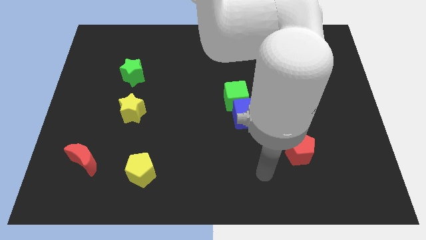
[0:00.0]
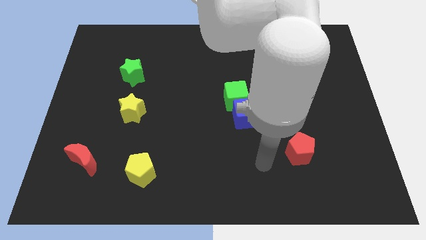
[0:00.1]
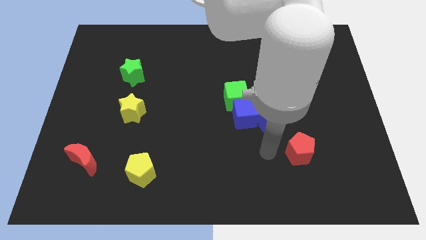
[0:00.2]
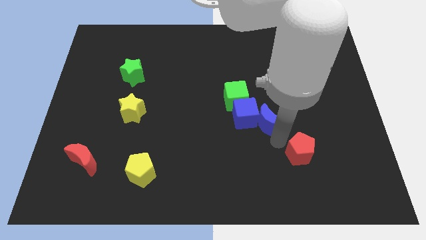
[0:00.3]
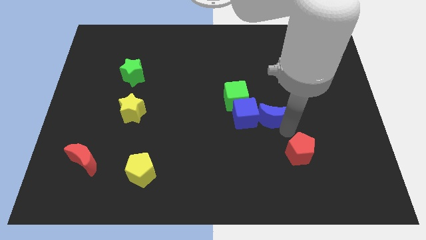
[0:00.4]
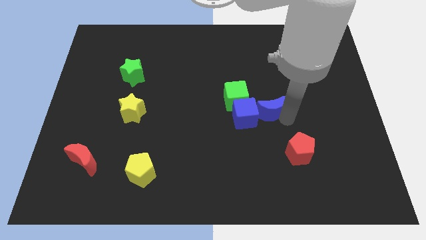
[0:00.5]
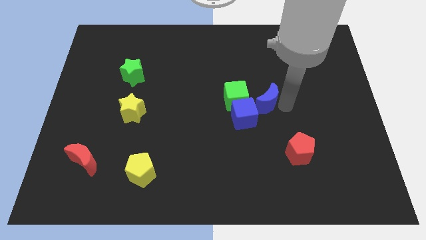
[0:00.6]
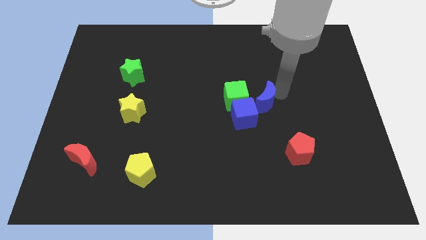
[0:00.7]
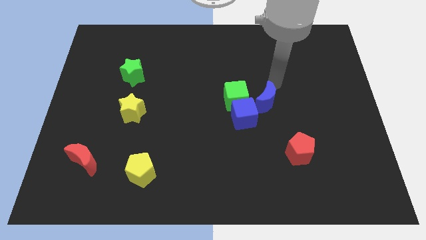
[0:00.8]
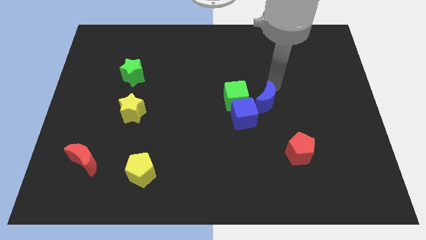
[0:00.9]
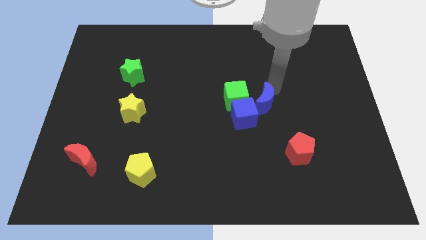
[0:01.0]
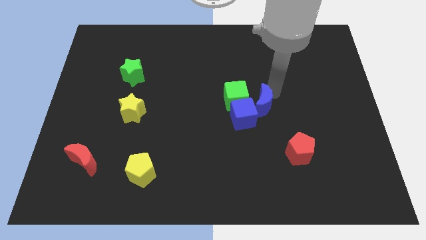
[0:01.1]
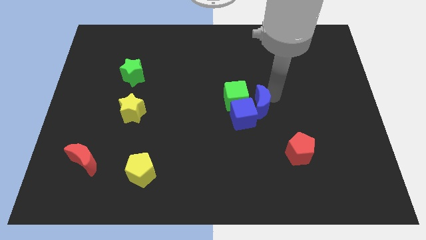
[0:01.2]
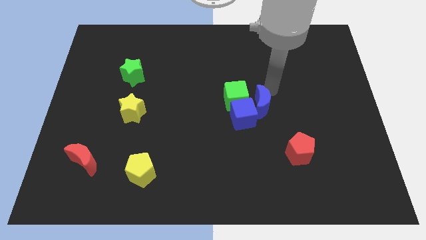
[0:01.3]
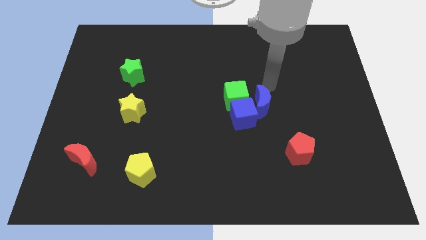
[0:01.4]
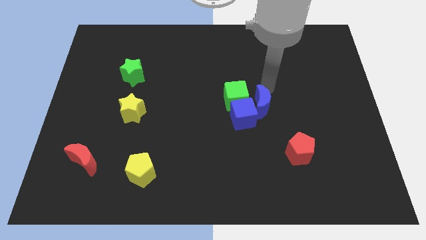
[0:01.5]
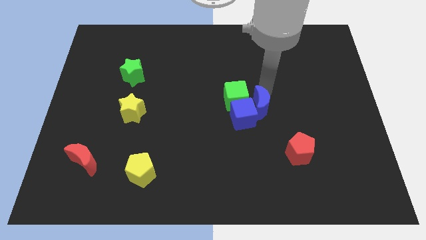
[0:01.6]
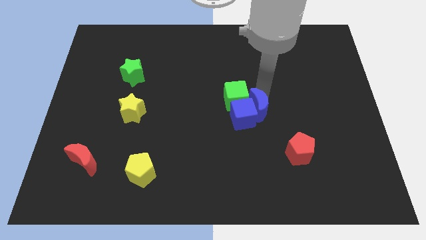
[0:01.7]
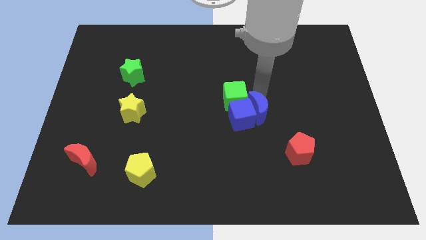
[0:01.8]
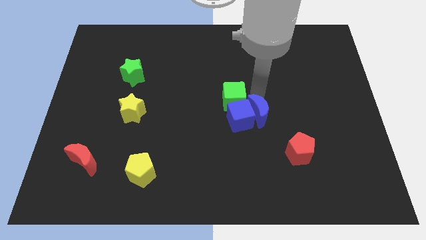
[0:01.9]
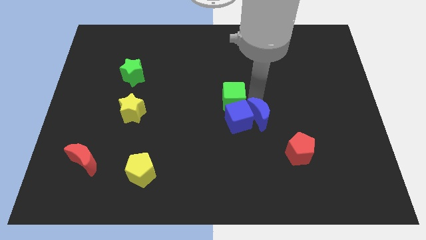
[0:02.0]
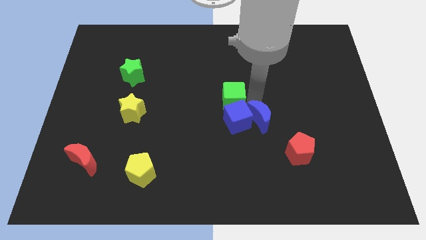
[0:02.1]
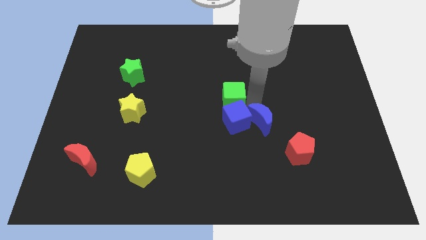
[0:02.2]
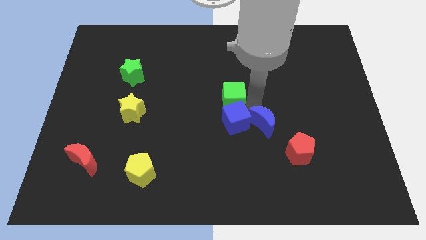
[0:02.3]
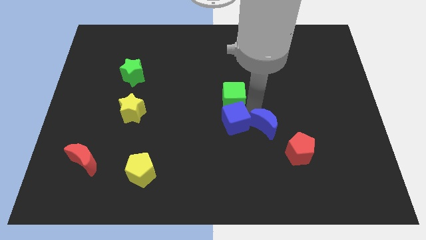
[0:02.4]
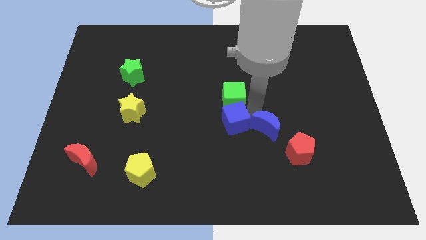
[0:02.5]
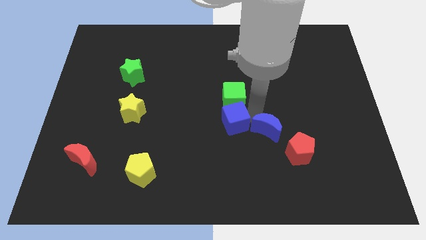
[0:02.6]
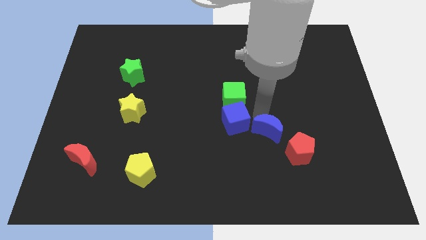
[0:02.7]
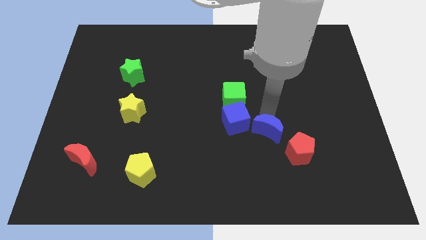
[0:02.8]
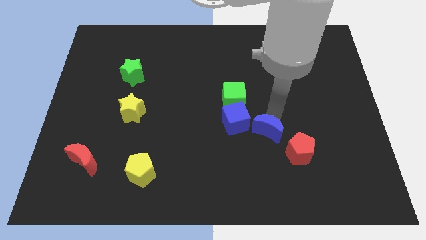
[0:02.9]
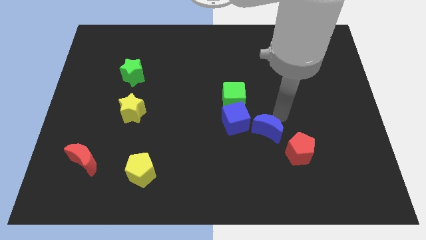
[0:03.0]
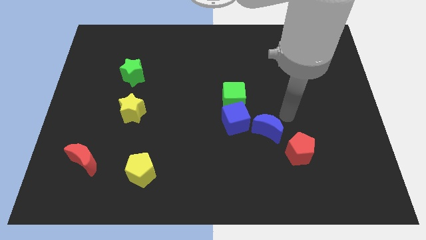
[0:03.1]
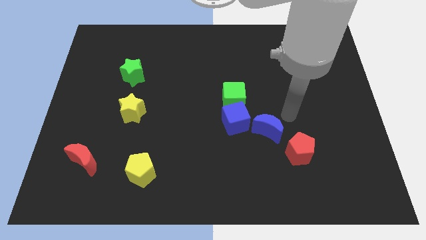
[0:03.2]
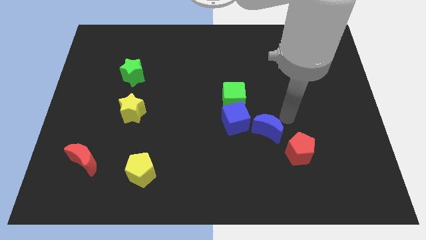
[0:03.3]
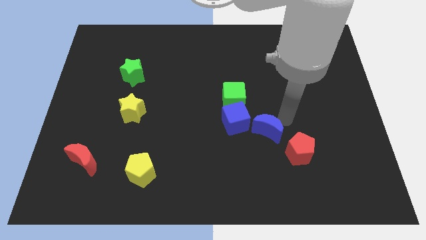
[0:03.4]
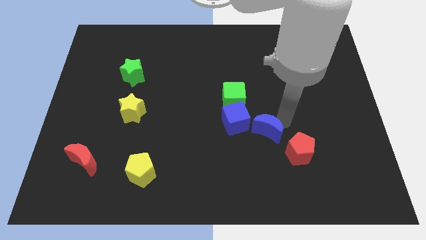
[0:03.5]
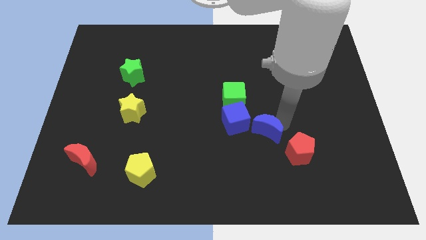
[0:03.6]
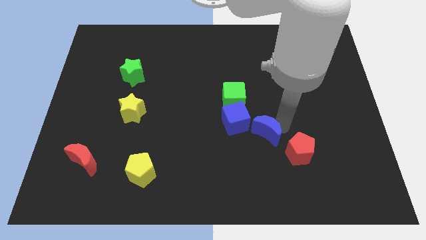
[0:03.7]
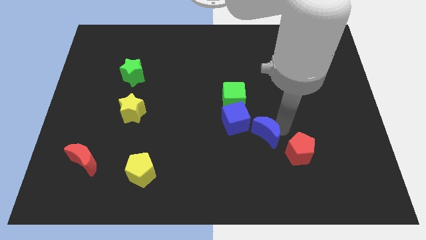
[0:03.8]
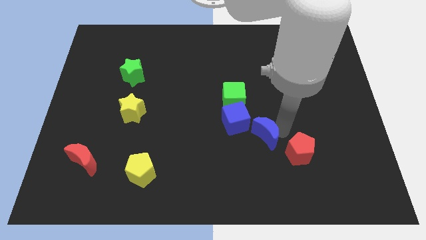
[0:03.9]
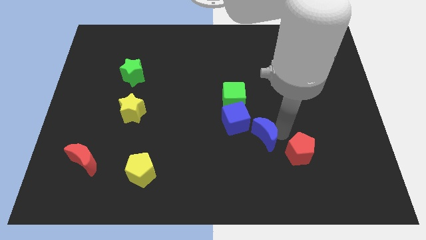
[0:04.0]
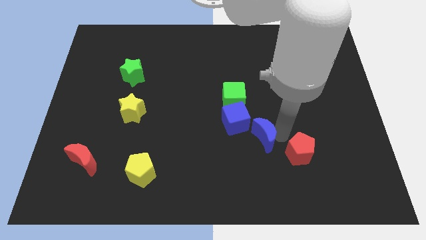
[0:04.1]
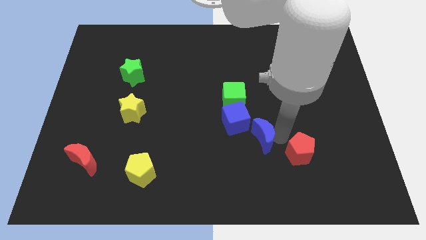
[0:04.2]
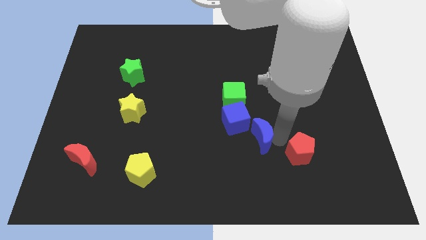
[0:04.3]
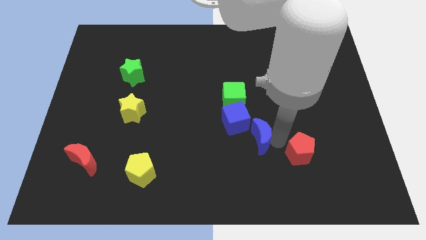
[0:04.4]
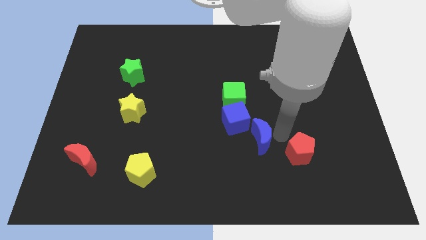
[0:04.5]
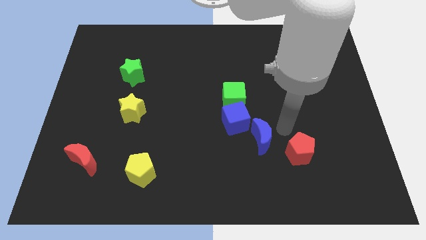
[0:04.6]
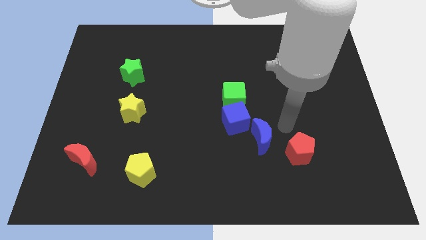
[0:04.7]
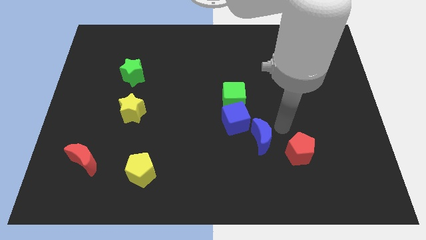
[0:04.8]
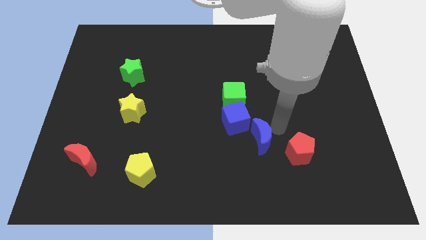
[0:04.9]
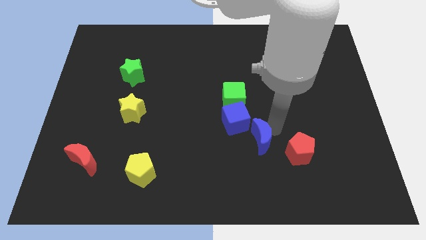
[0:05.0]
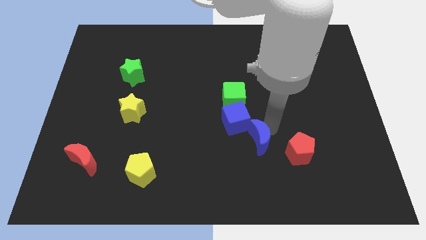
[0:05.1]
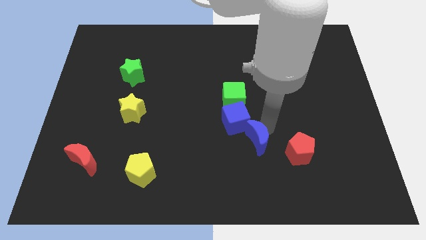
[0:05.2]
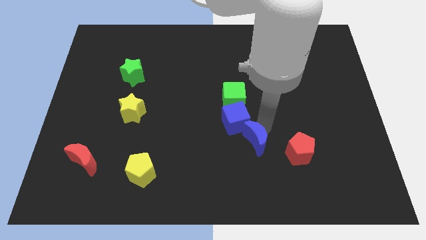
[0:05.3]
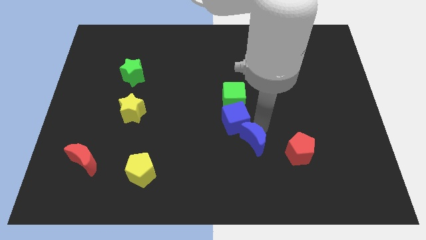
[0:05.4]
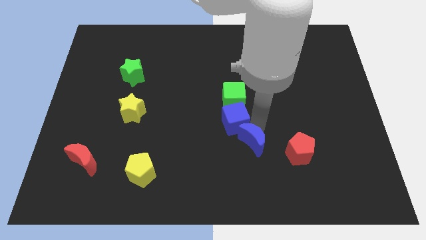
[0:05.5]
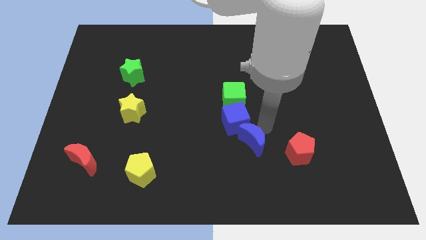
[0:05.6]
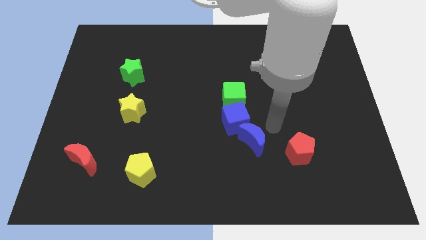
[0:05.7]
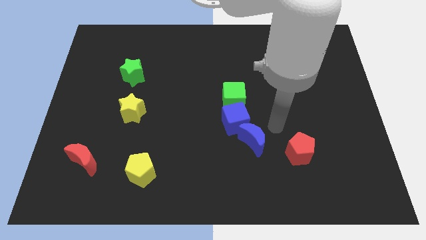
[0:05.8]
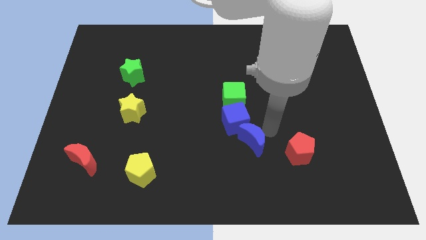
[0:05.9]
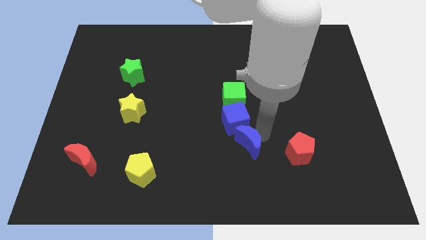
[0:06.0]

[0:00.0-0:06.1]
slide the blue moon downwards and left diagonally a little bit

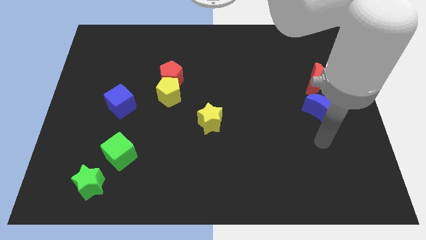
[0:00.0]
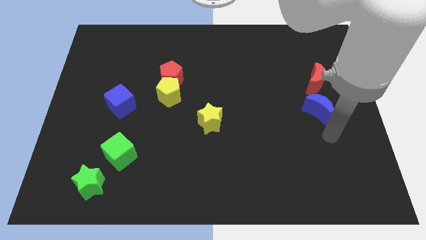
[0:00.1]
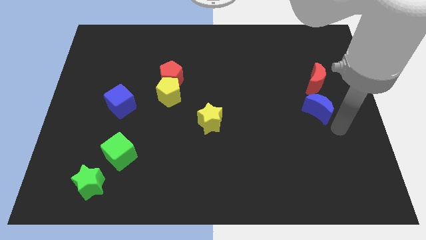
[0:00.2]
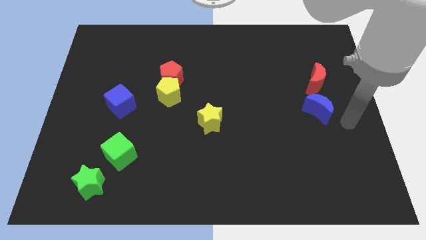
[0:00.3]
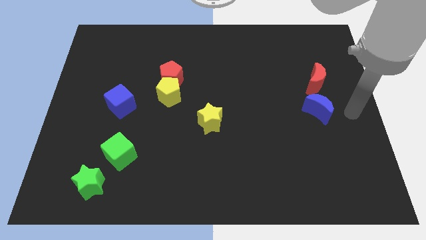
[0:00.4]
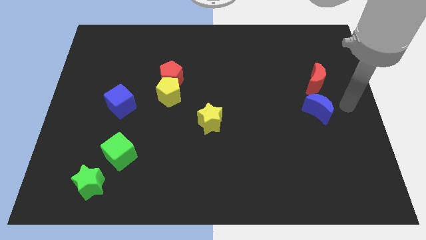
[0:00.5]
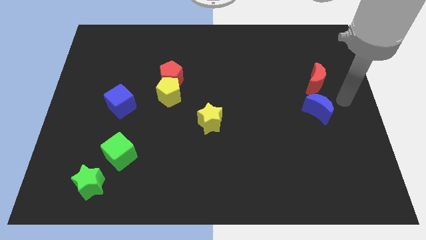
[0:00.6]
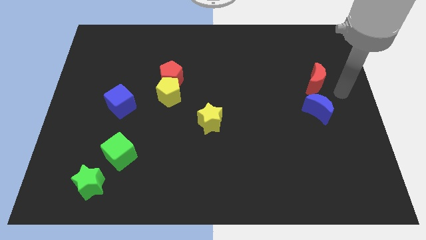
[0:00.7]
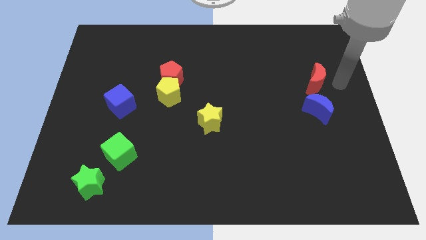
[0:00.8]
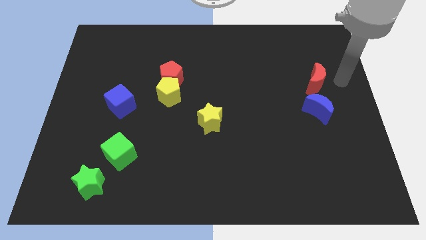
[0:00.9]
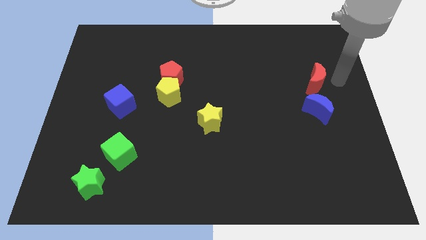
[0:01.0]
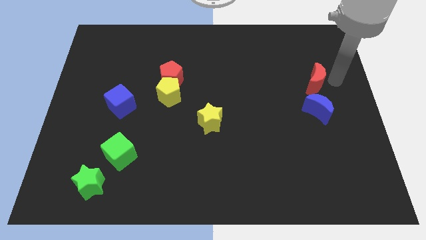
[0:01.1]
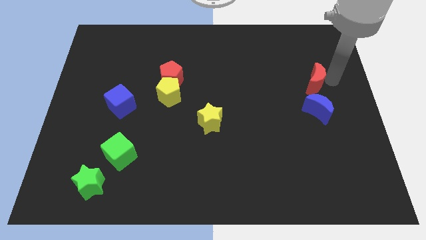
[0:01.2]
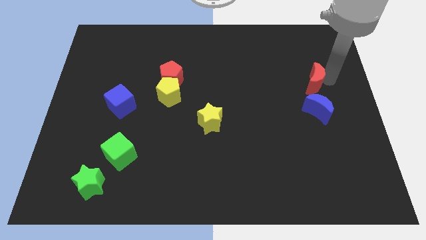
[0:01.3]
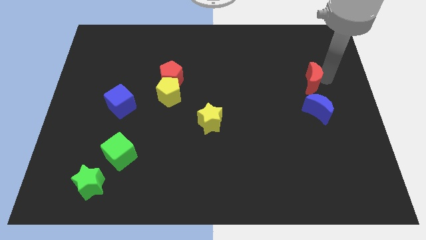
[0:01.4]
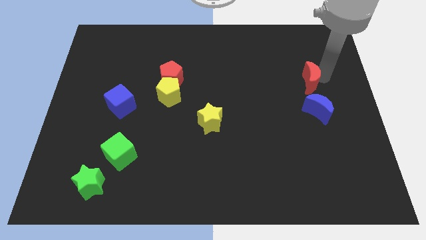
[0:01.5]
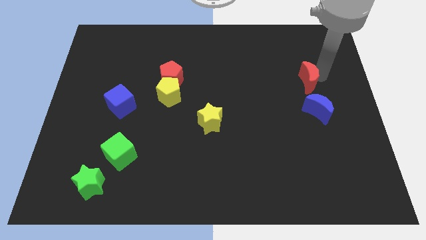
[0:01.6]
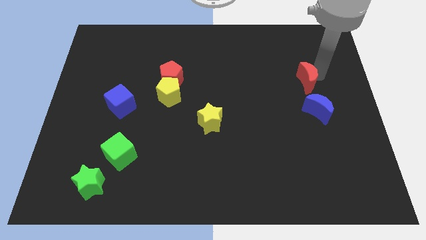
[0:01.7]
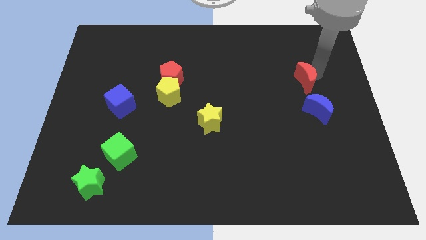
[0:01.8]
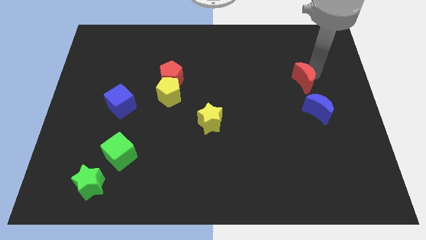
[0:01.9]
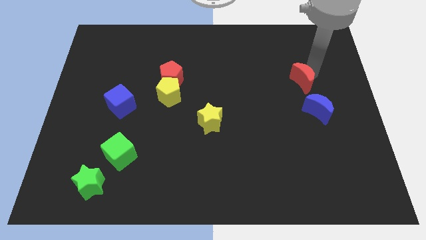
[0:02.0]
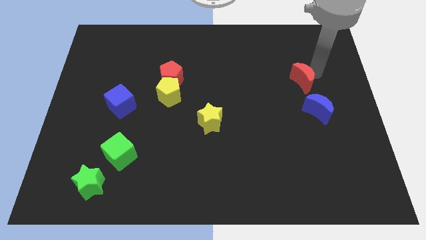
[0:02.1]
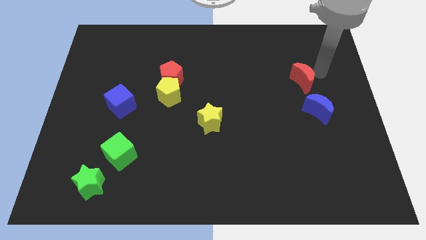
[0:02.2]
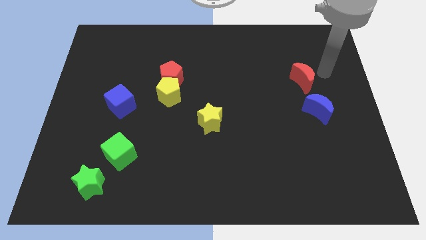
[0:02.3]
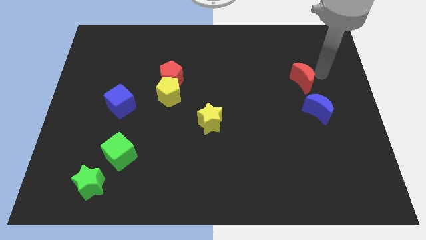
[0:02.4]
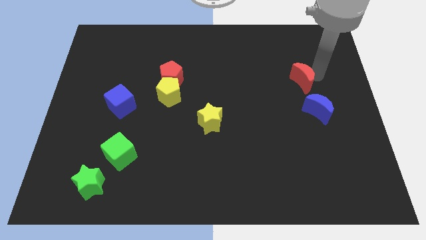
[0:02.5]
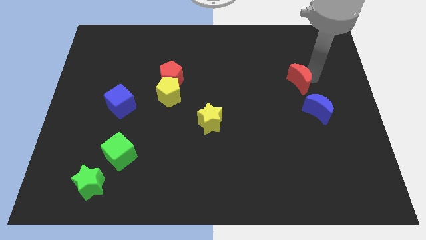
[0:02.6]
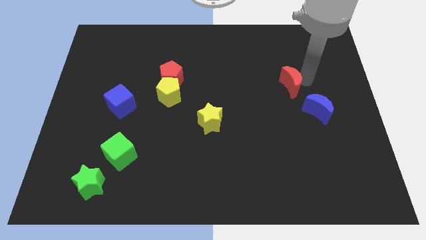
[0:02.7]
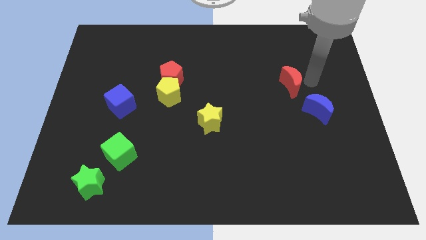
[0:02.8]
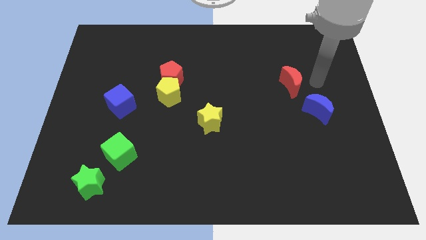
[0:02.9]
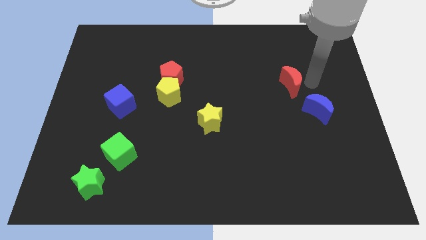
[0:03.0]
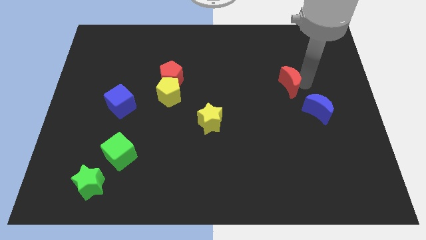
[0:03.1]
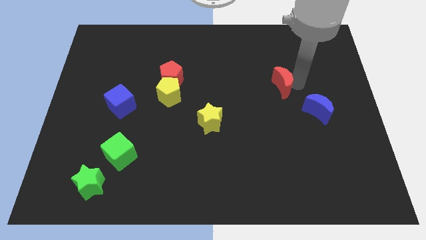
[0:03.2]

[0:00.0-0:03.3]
slide the red moon a little bit to the left
